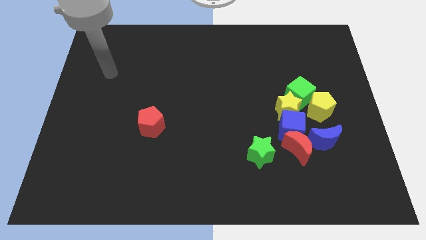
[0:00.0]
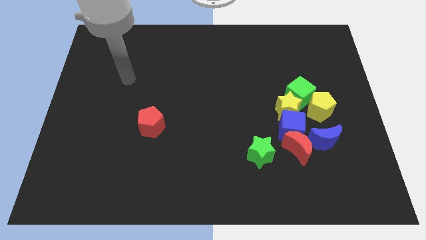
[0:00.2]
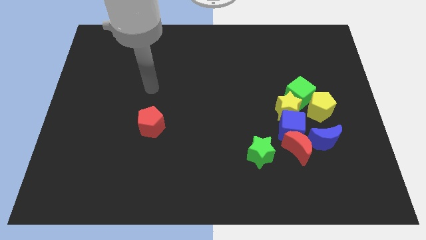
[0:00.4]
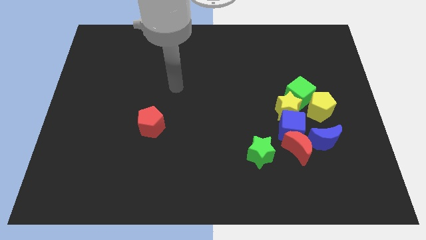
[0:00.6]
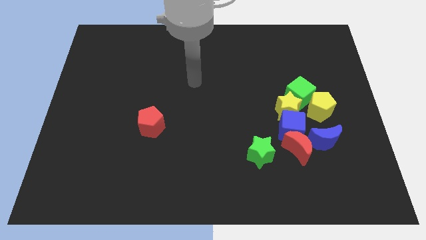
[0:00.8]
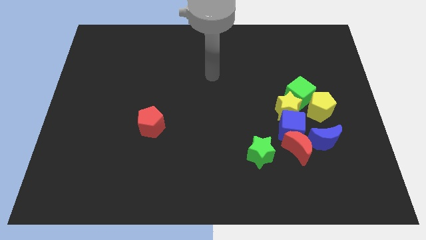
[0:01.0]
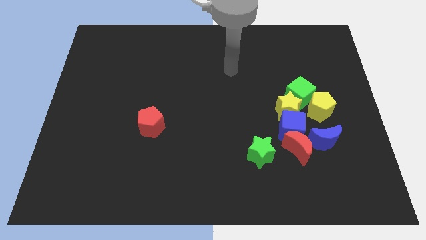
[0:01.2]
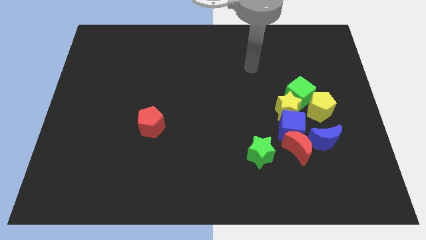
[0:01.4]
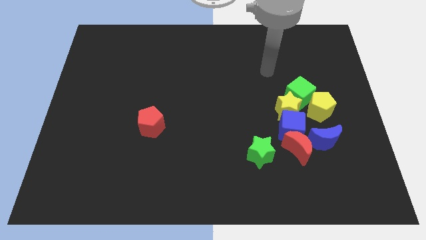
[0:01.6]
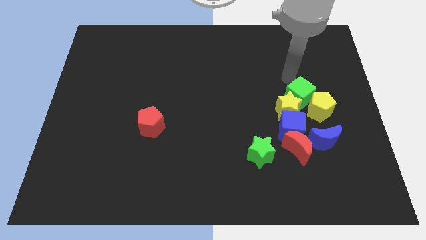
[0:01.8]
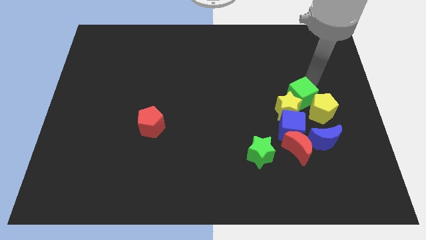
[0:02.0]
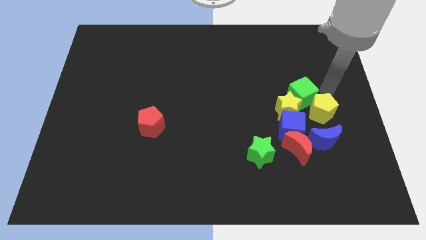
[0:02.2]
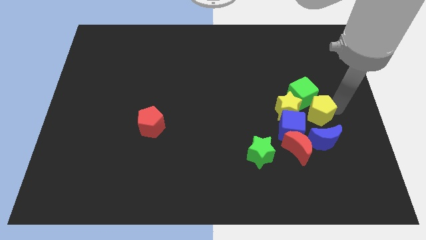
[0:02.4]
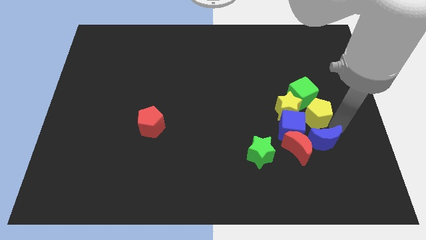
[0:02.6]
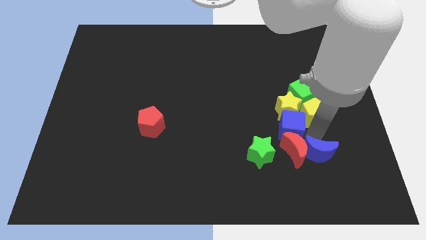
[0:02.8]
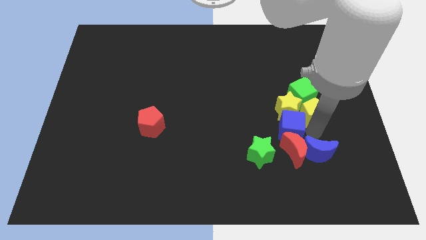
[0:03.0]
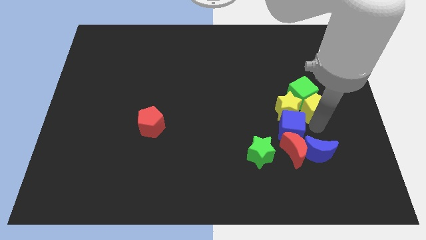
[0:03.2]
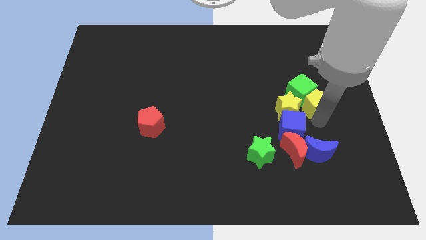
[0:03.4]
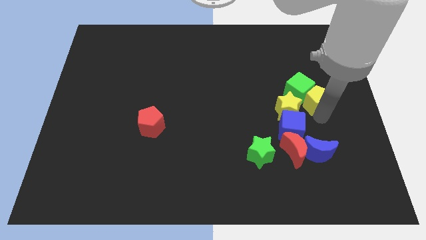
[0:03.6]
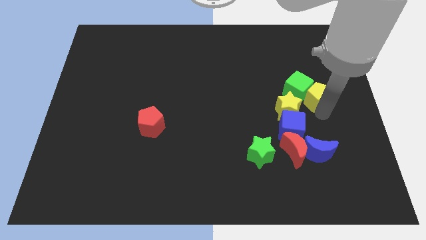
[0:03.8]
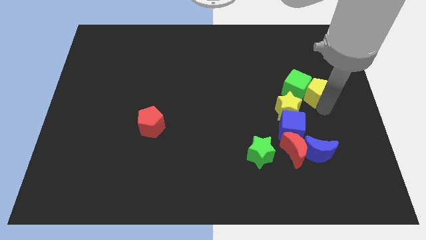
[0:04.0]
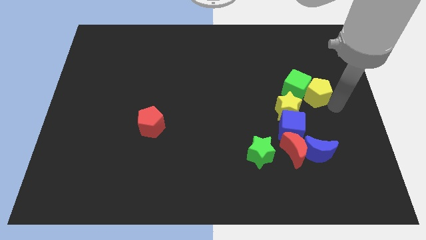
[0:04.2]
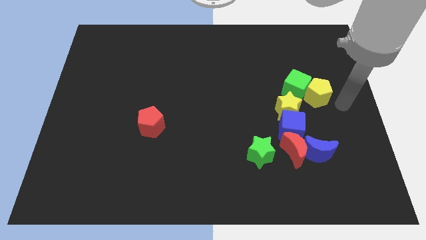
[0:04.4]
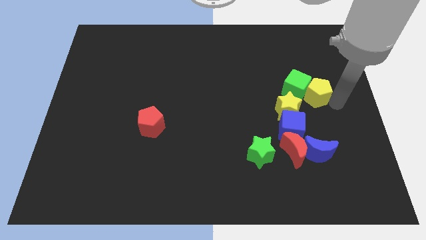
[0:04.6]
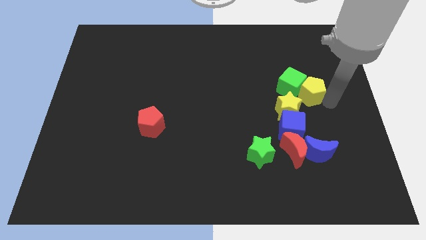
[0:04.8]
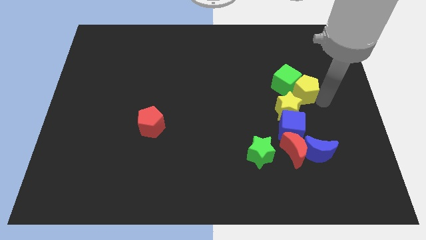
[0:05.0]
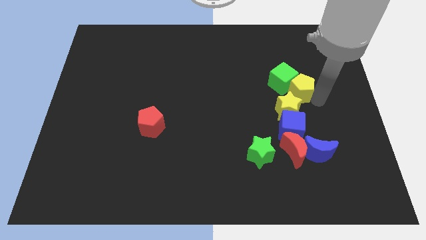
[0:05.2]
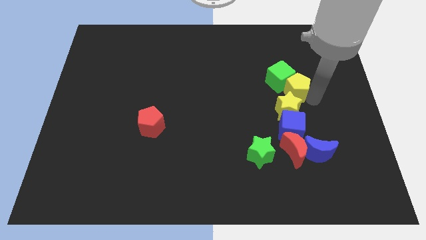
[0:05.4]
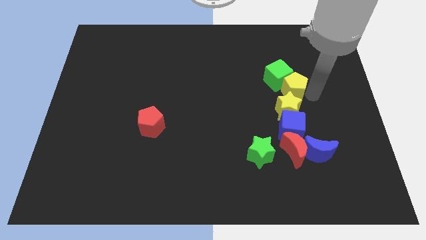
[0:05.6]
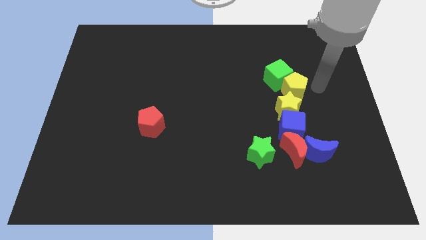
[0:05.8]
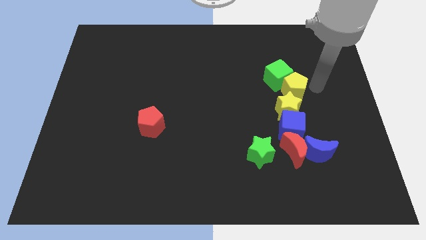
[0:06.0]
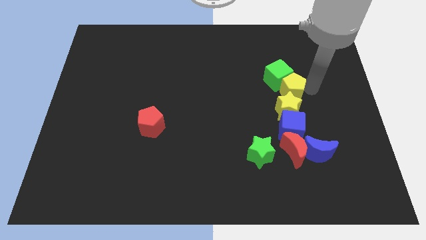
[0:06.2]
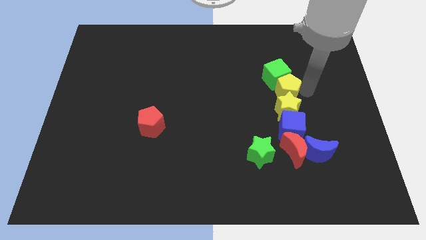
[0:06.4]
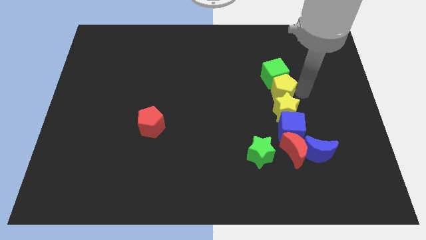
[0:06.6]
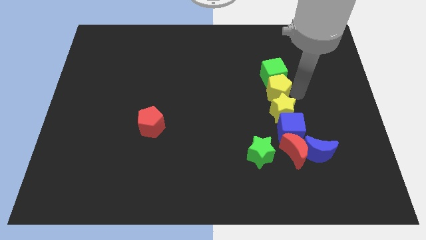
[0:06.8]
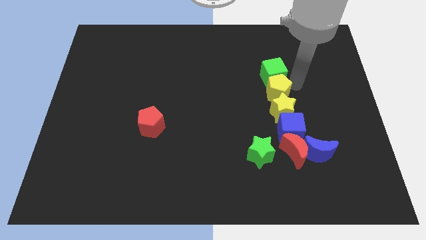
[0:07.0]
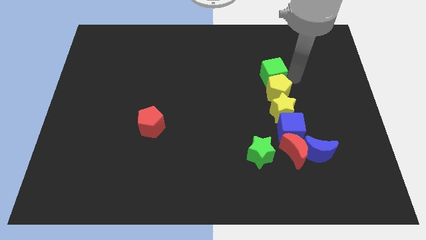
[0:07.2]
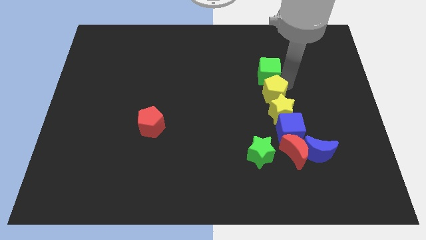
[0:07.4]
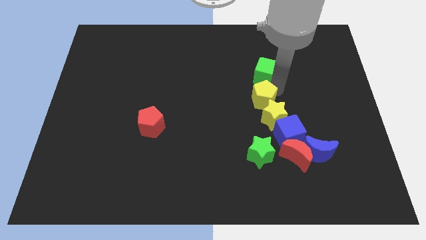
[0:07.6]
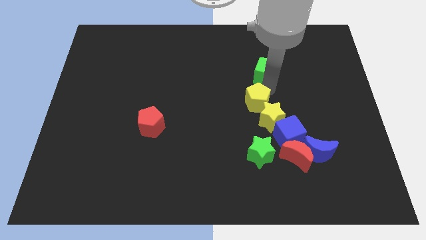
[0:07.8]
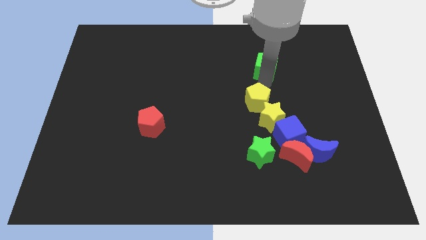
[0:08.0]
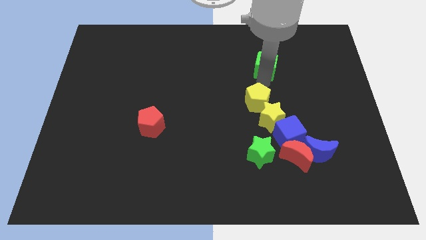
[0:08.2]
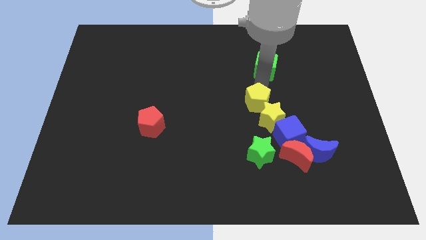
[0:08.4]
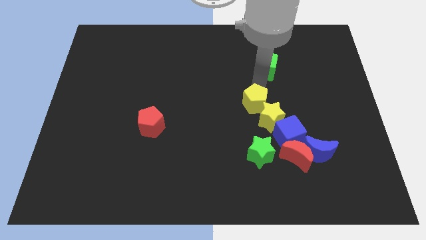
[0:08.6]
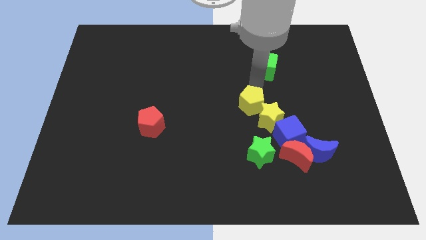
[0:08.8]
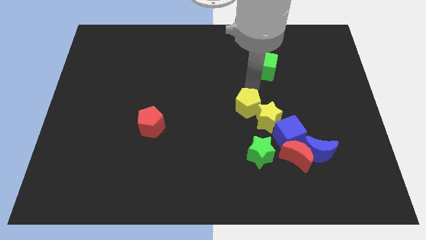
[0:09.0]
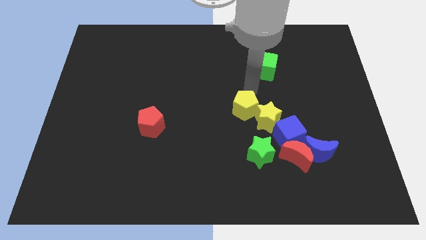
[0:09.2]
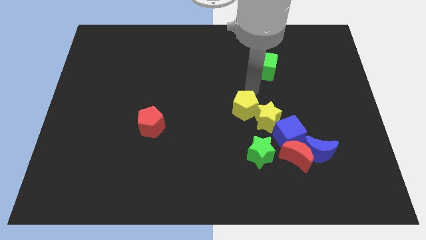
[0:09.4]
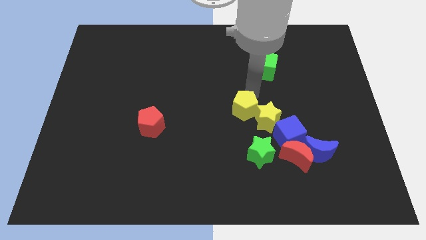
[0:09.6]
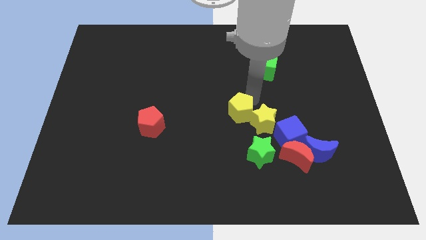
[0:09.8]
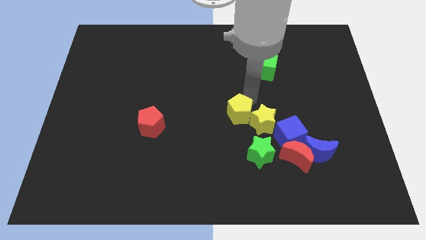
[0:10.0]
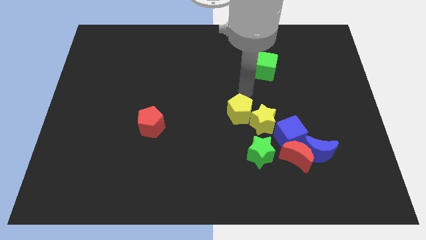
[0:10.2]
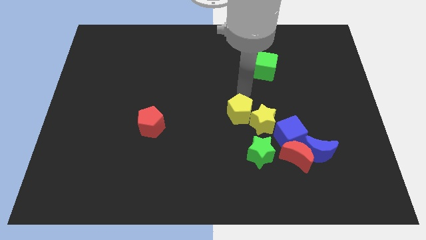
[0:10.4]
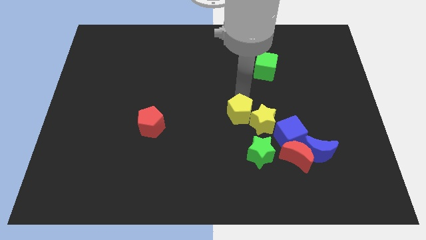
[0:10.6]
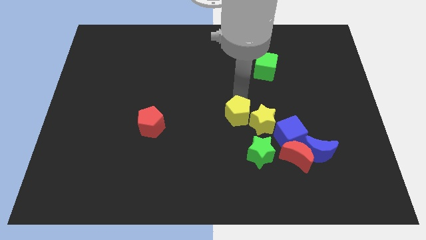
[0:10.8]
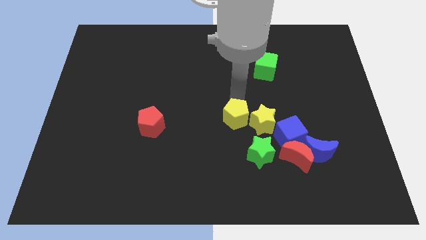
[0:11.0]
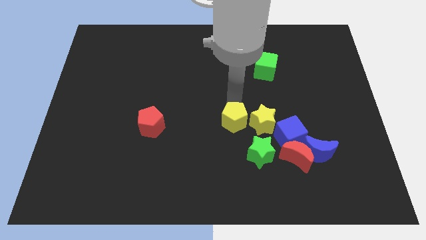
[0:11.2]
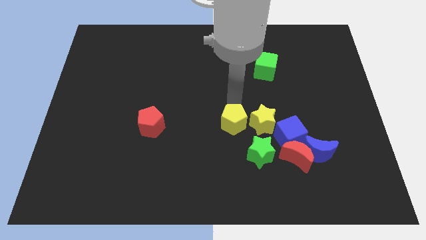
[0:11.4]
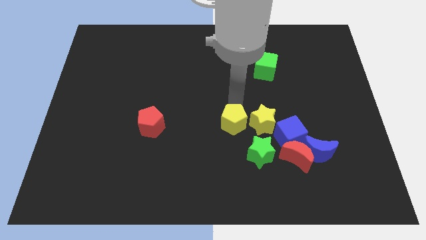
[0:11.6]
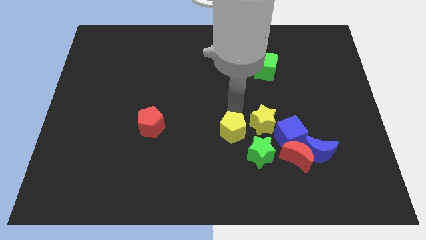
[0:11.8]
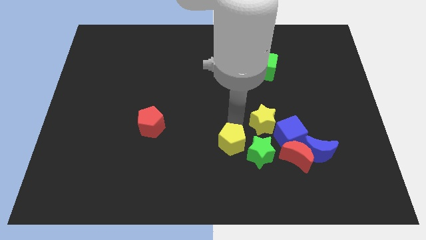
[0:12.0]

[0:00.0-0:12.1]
slide the yellow pentagon to the left of the green star

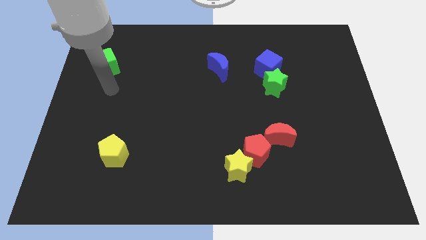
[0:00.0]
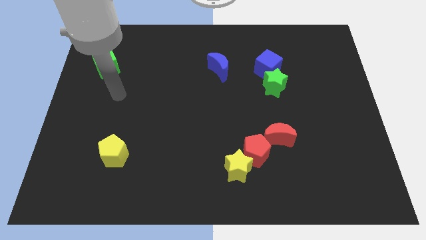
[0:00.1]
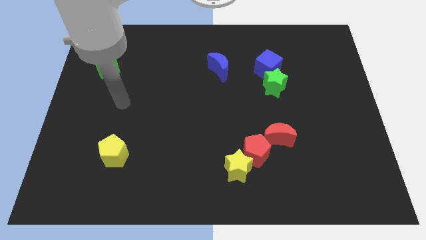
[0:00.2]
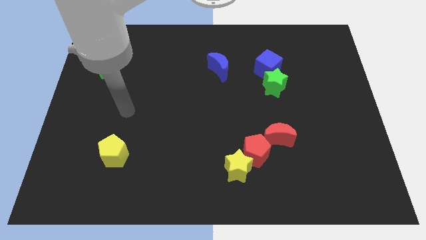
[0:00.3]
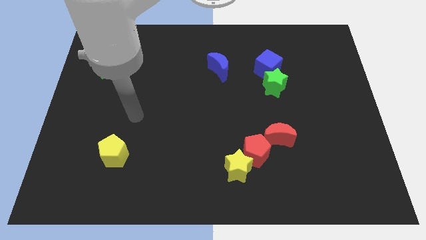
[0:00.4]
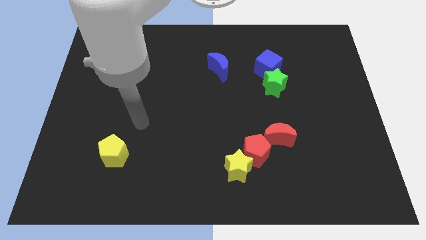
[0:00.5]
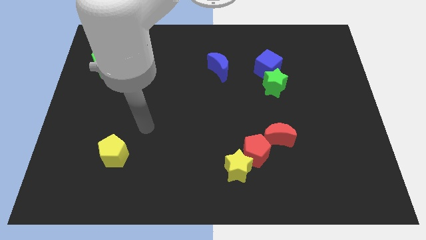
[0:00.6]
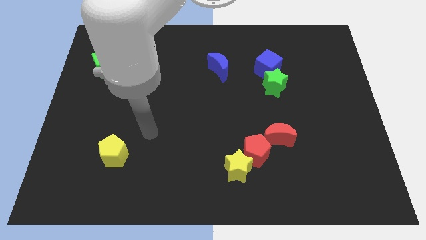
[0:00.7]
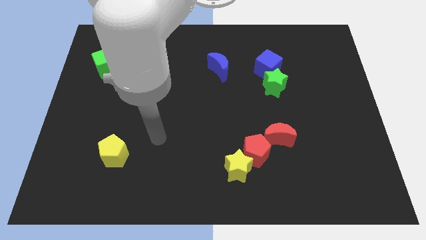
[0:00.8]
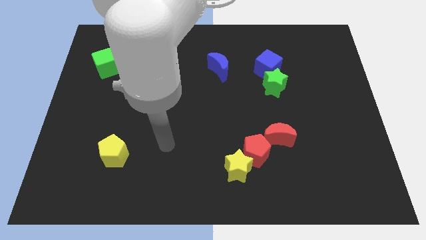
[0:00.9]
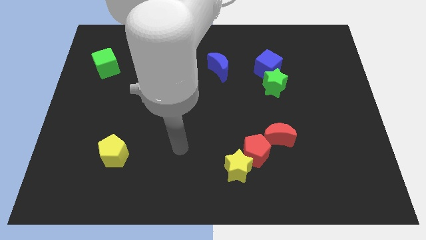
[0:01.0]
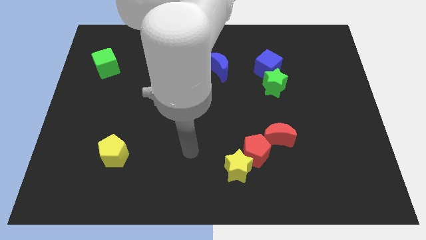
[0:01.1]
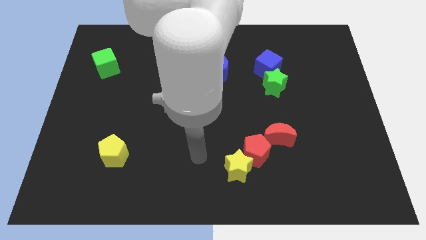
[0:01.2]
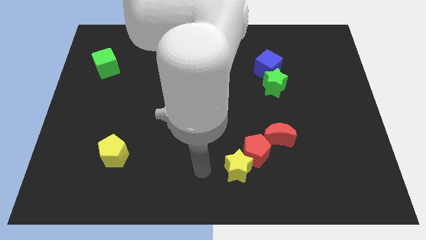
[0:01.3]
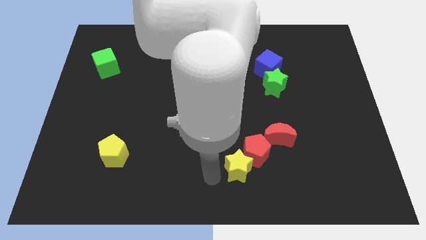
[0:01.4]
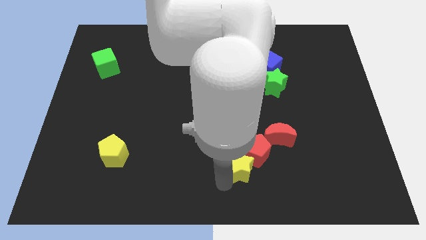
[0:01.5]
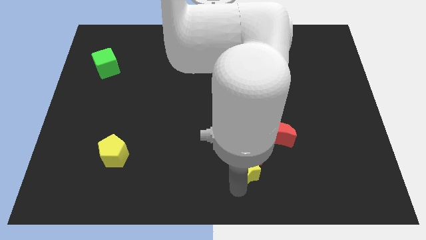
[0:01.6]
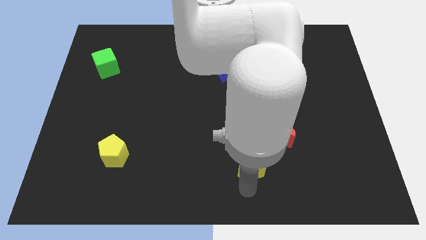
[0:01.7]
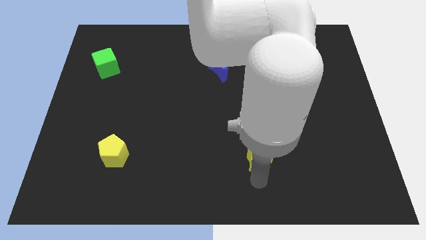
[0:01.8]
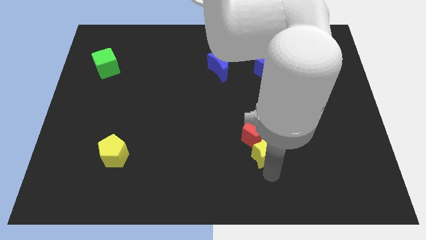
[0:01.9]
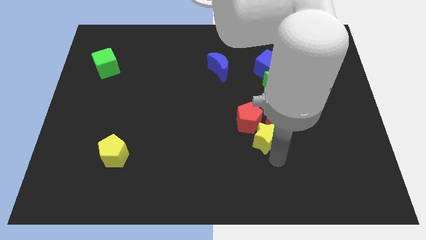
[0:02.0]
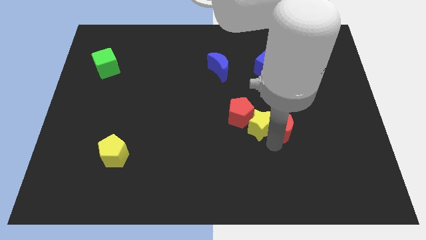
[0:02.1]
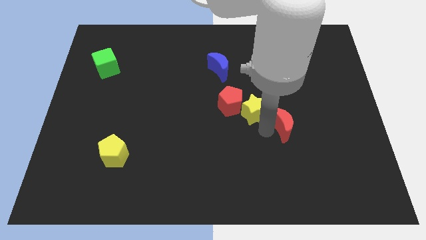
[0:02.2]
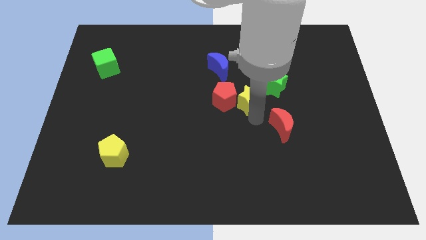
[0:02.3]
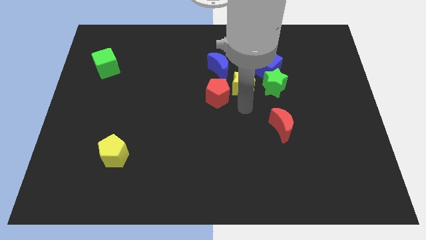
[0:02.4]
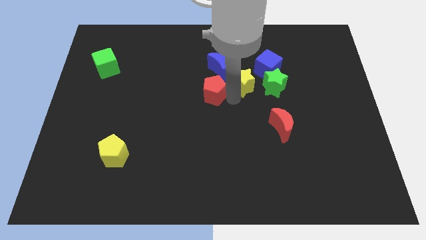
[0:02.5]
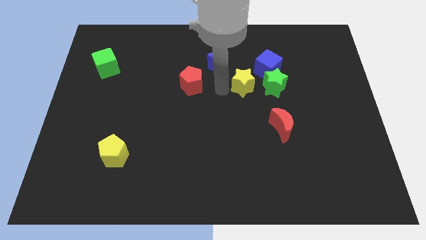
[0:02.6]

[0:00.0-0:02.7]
slide the red pentagon just left of the blue moon
